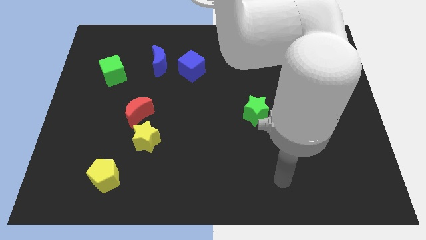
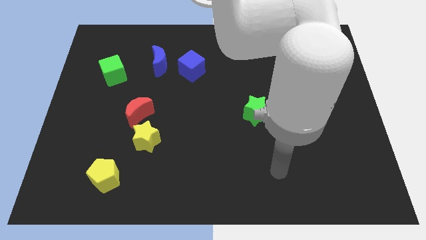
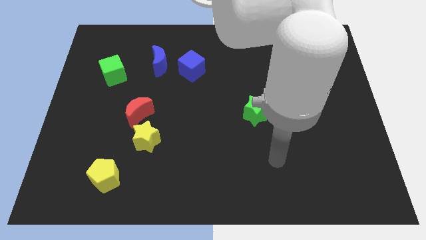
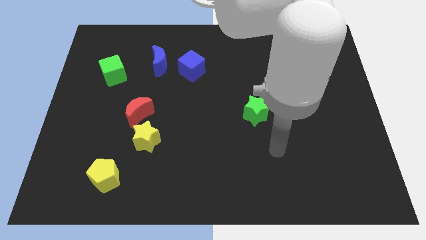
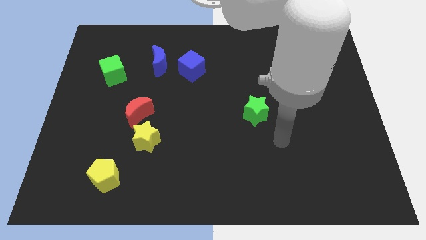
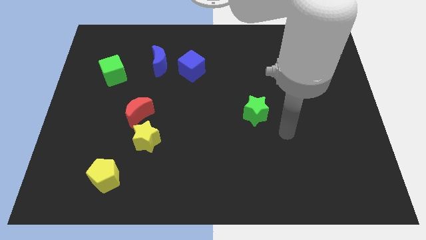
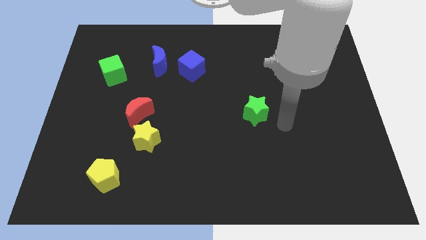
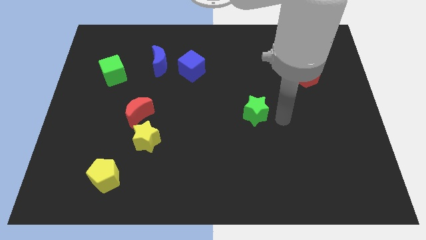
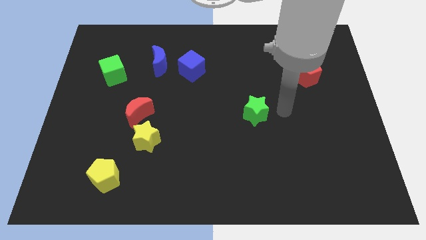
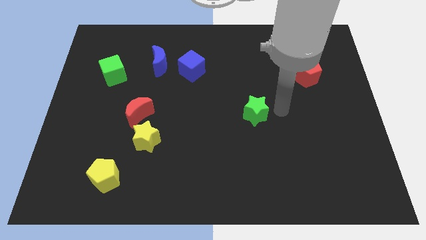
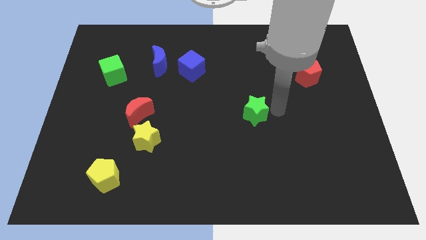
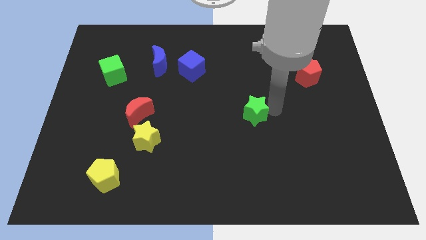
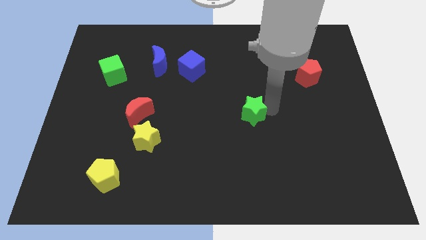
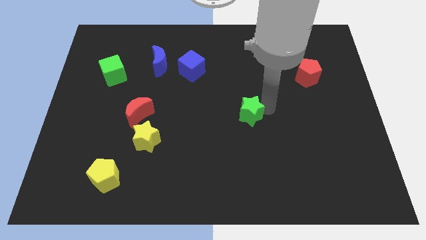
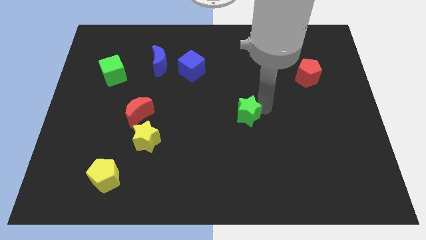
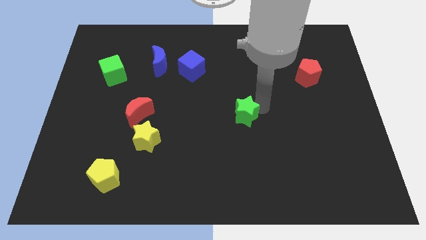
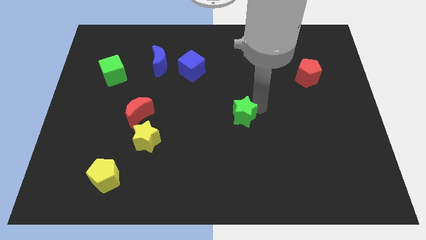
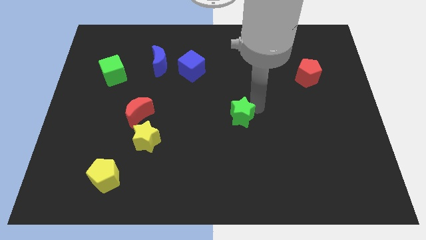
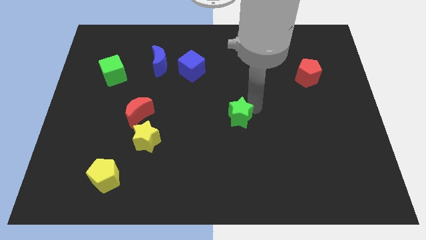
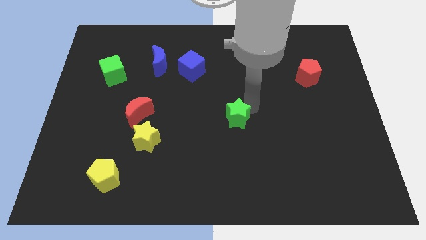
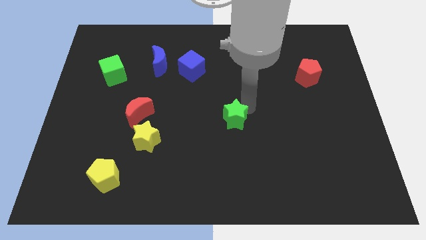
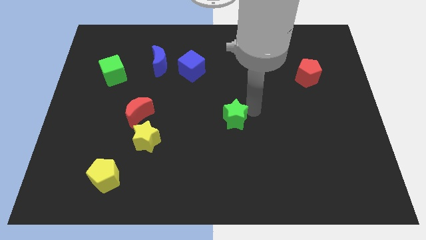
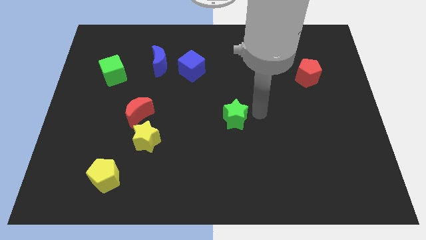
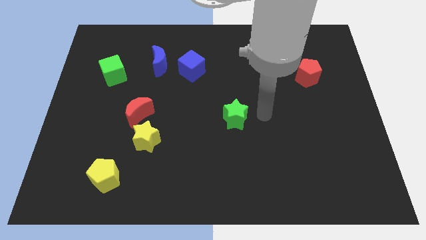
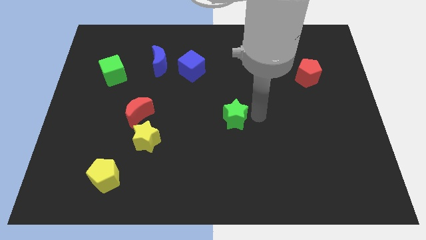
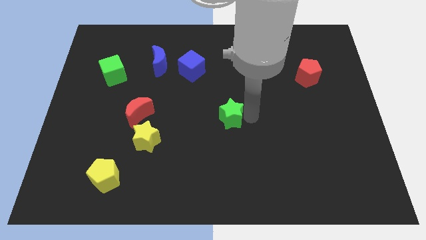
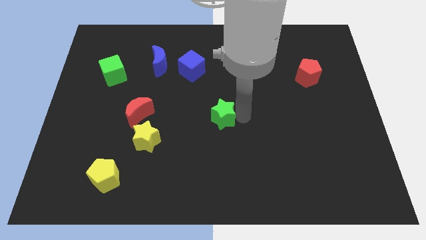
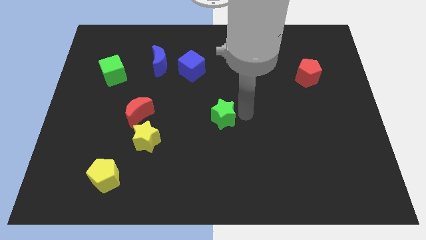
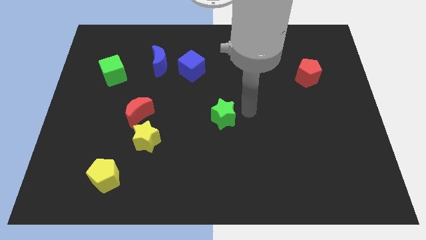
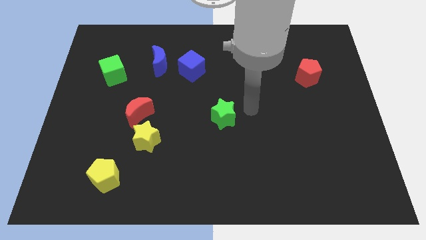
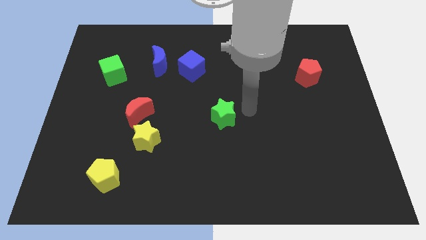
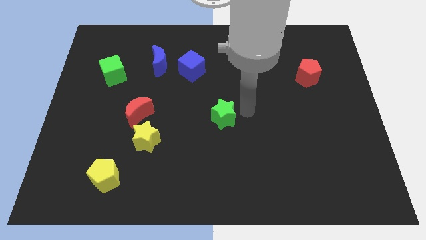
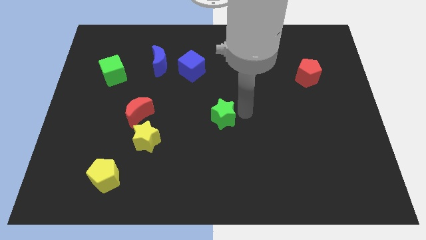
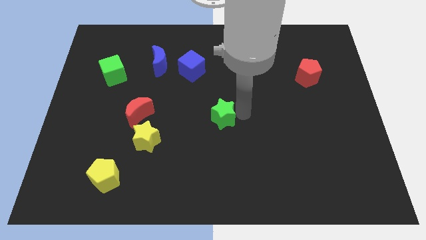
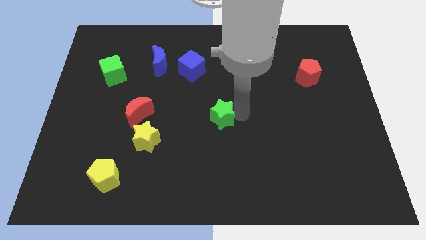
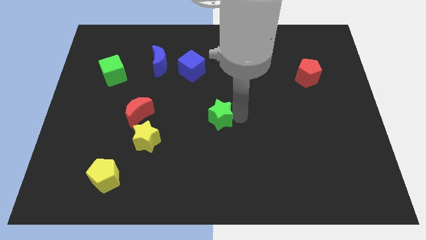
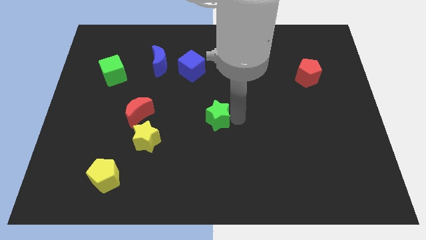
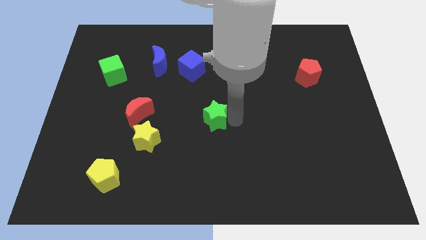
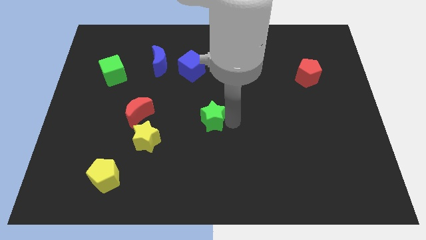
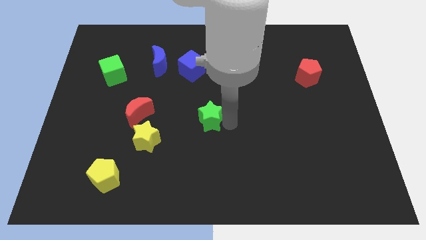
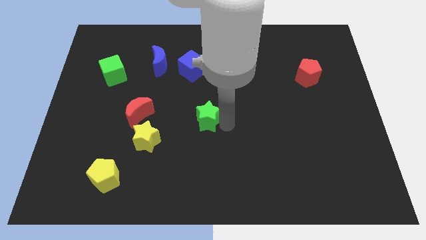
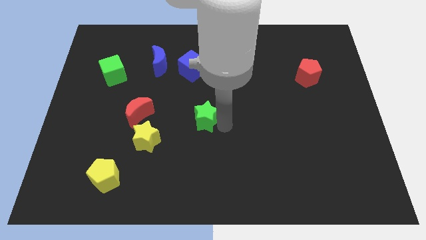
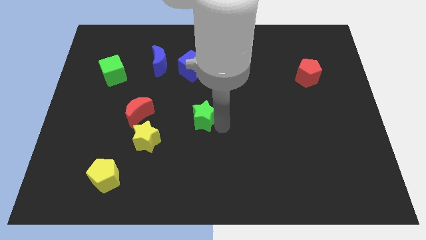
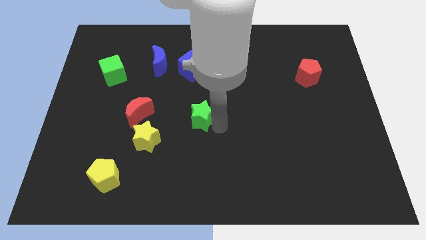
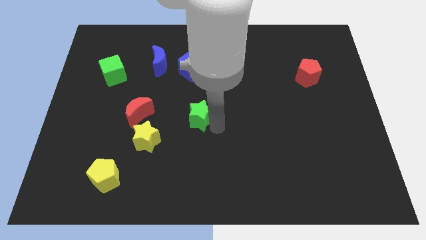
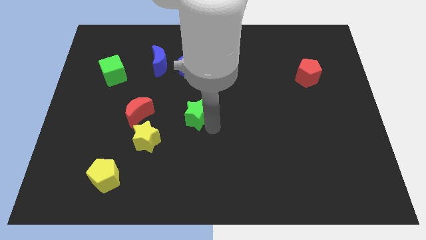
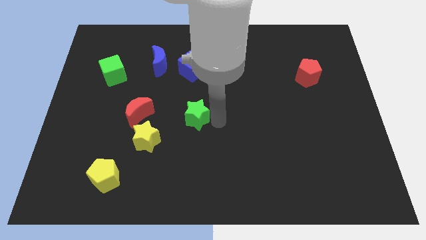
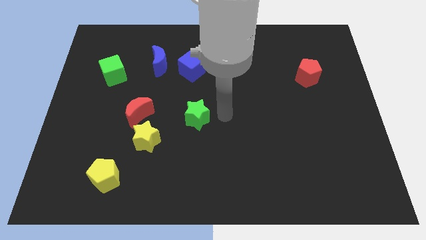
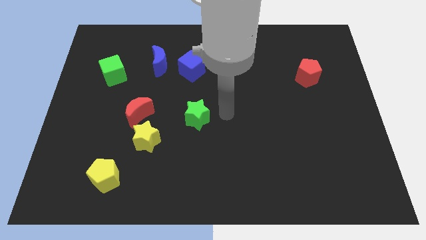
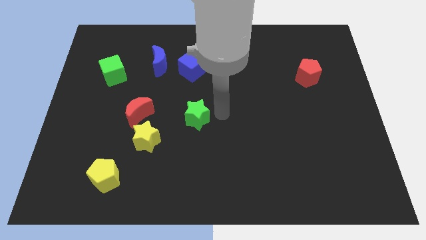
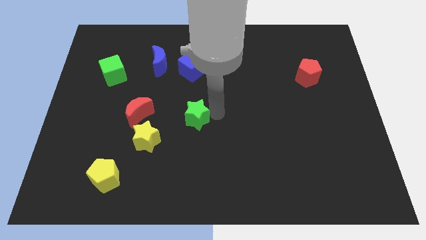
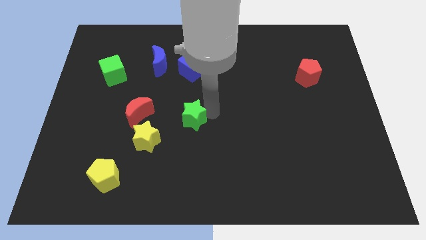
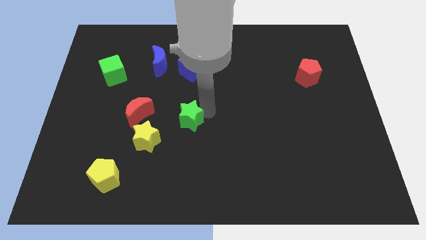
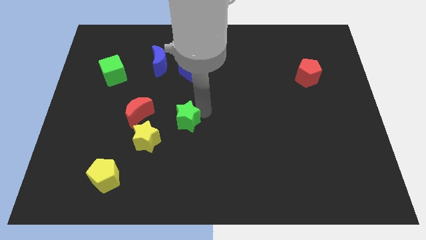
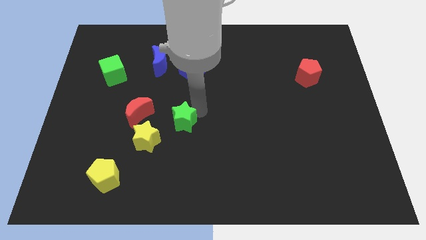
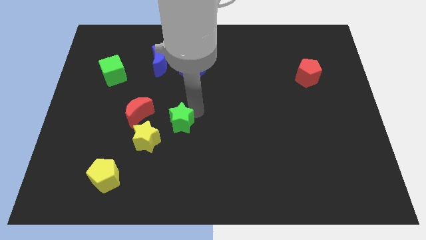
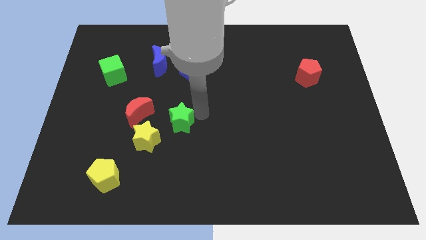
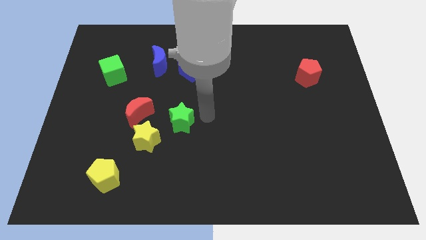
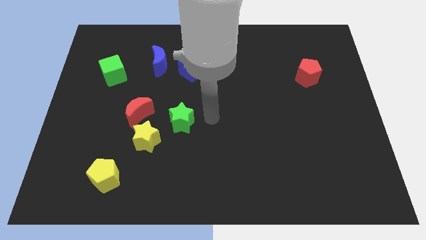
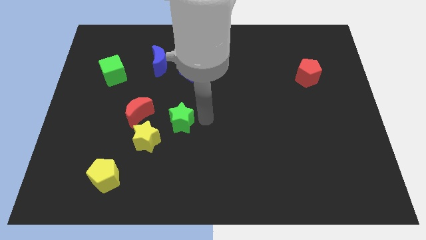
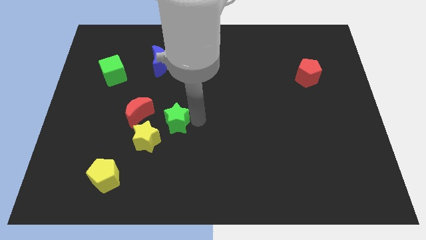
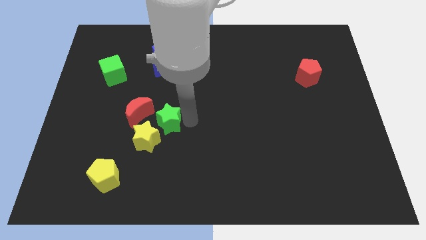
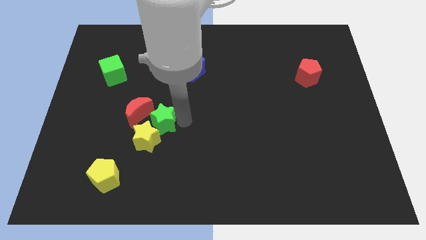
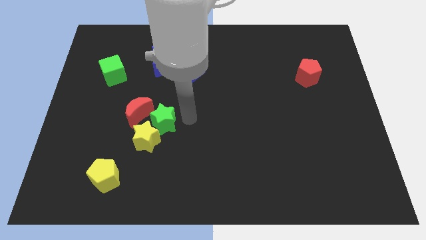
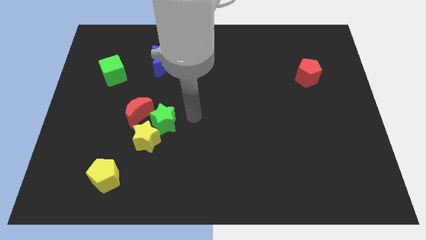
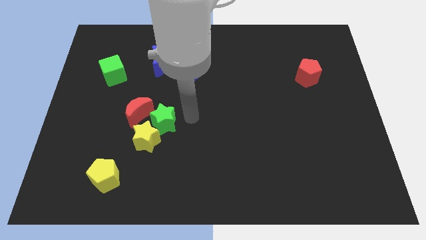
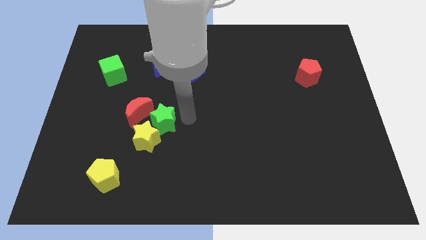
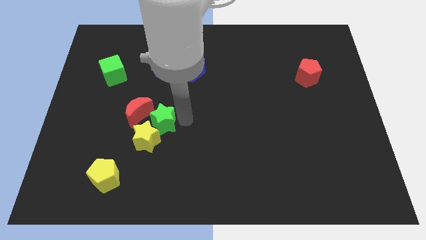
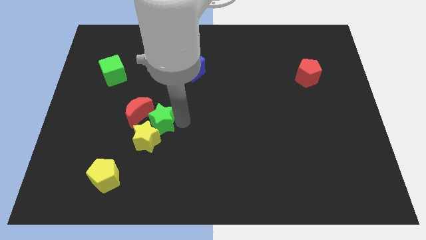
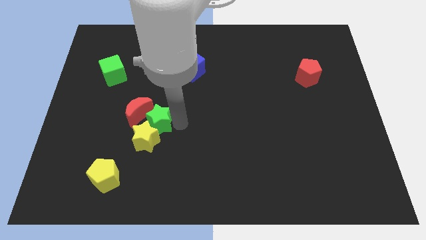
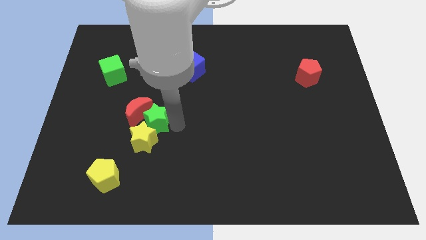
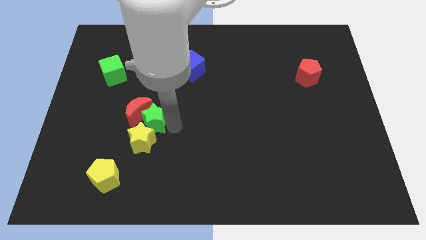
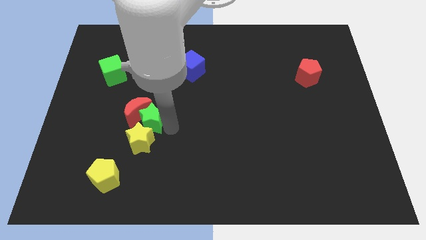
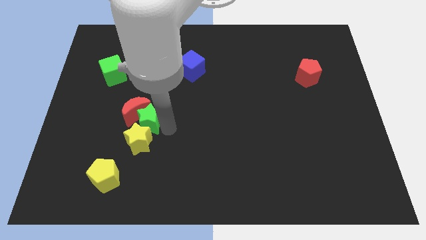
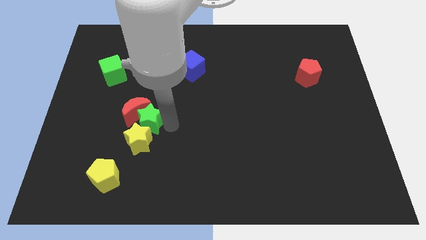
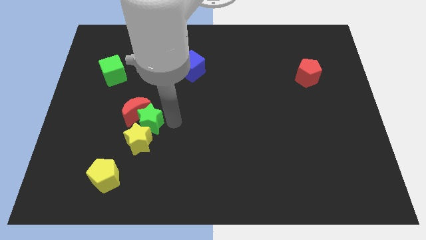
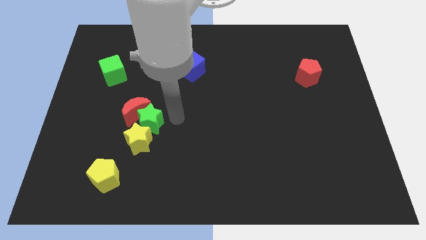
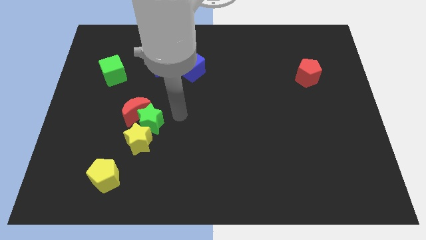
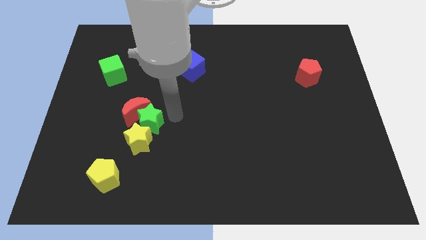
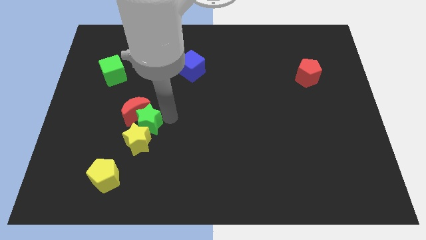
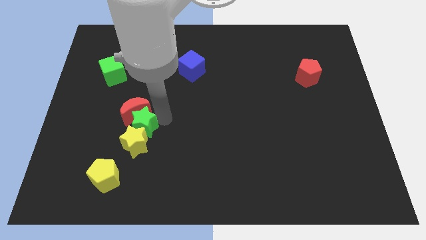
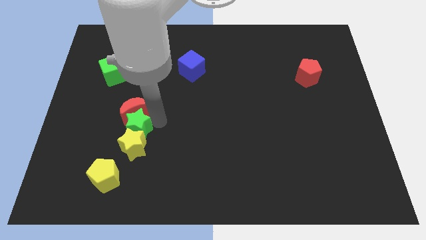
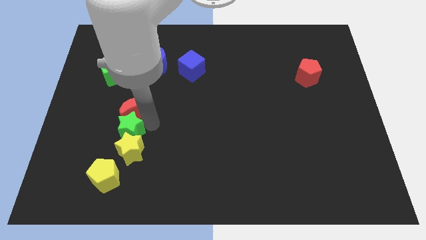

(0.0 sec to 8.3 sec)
move the green star above the yellow pentagon
